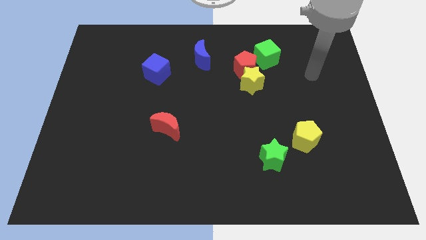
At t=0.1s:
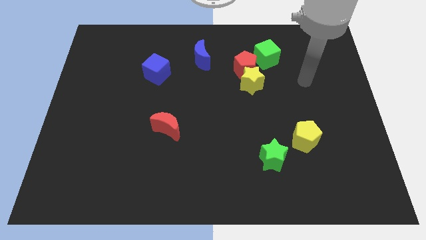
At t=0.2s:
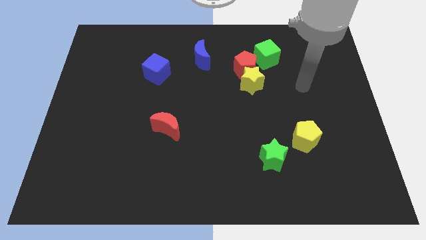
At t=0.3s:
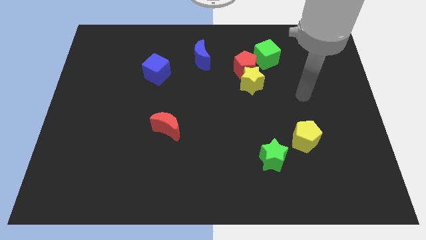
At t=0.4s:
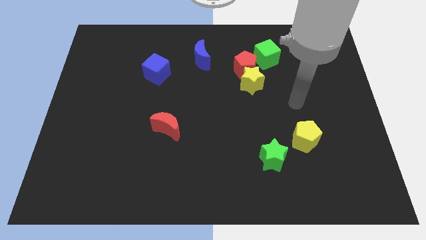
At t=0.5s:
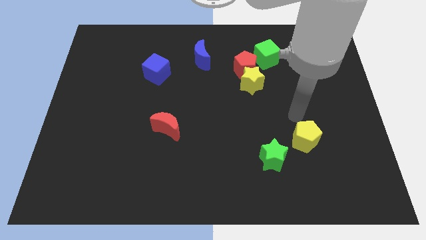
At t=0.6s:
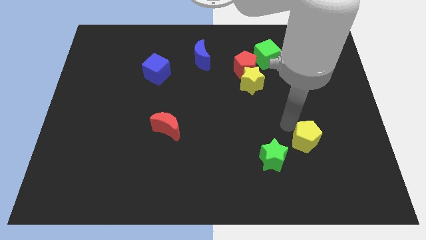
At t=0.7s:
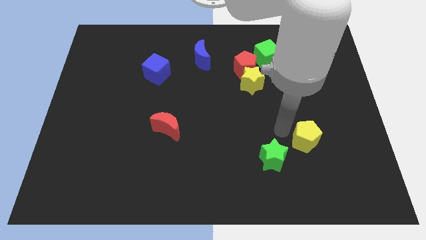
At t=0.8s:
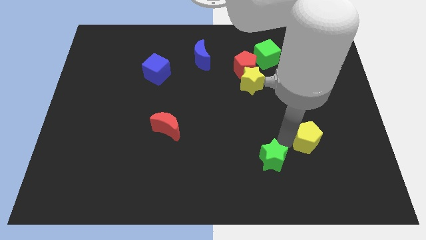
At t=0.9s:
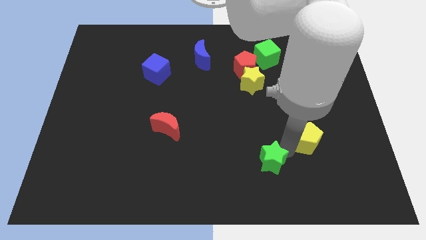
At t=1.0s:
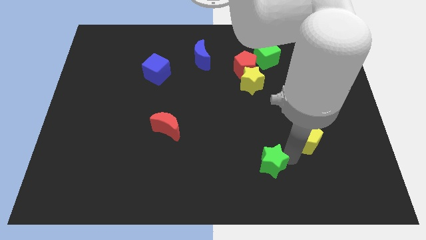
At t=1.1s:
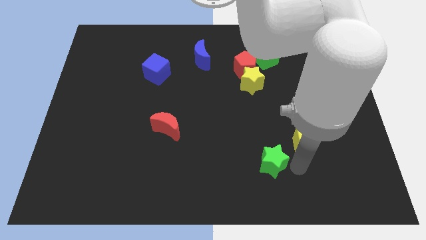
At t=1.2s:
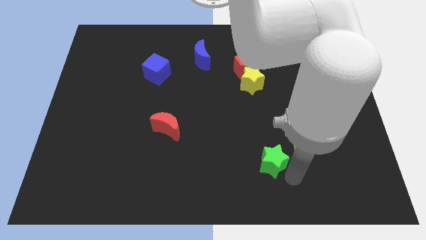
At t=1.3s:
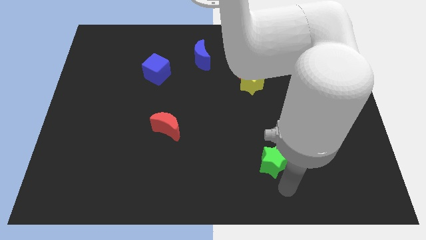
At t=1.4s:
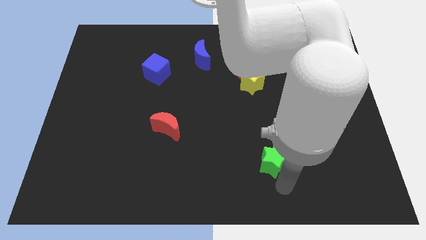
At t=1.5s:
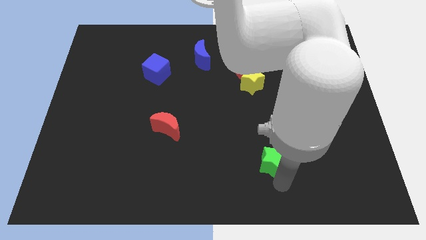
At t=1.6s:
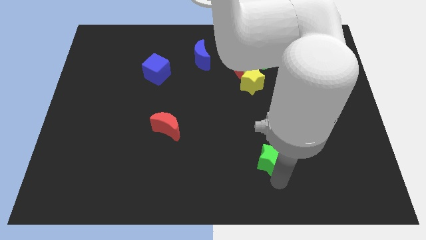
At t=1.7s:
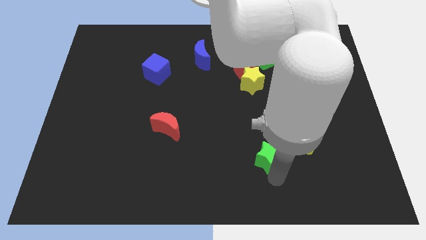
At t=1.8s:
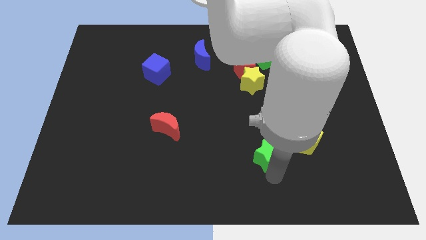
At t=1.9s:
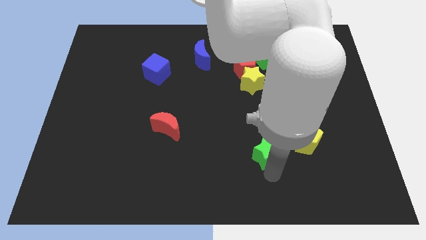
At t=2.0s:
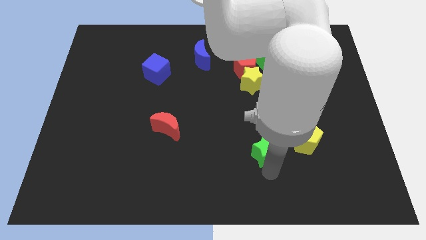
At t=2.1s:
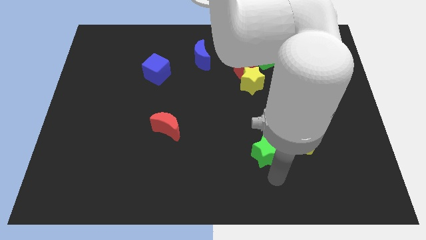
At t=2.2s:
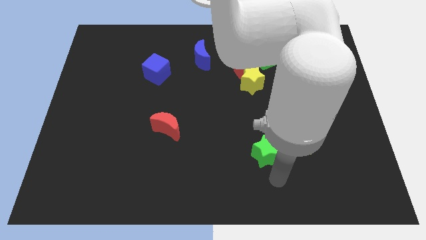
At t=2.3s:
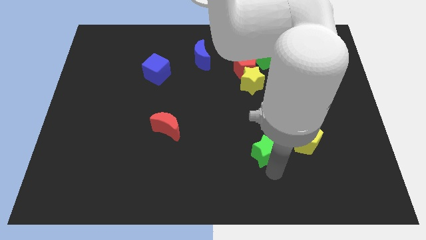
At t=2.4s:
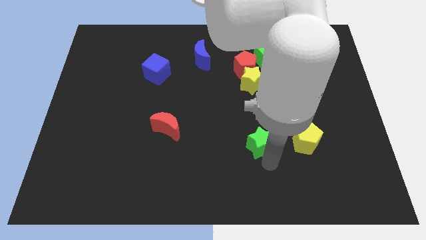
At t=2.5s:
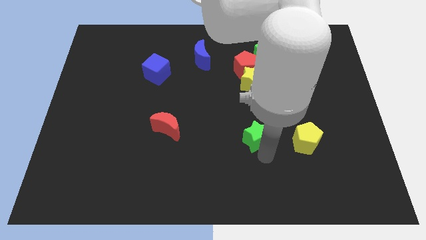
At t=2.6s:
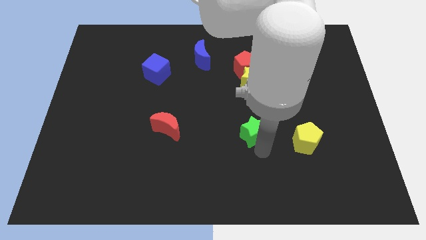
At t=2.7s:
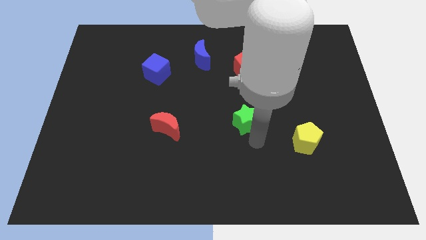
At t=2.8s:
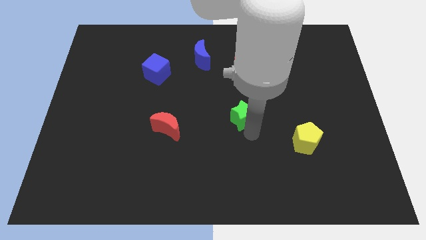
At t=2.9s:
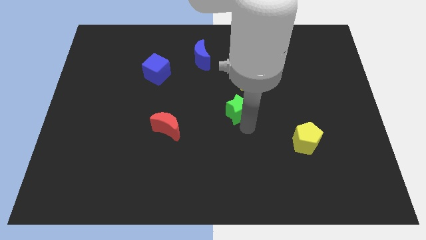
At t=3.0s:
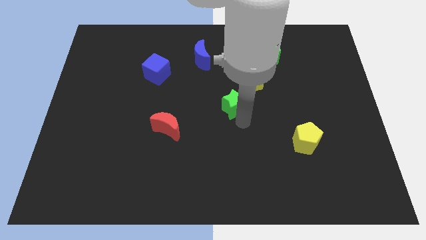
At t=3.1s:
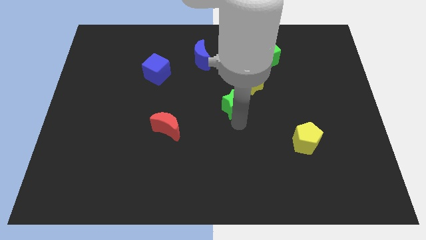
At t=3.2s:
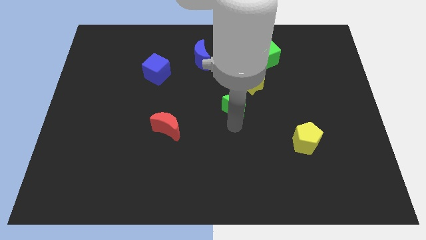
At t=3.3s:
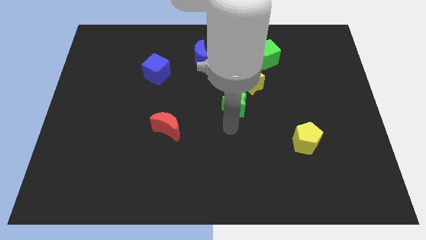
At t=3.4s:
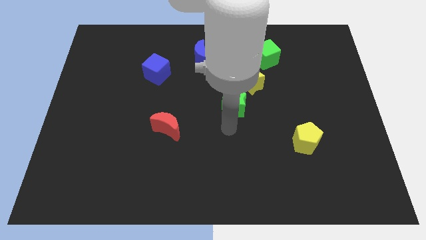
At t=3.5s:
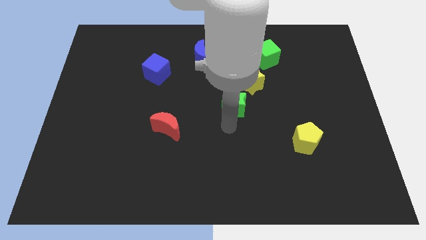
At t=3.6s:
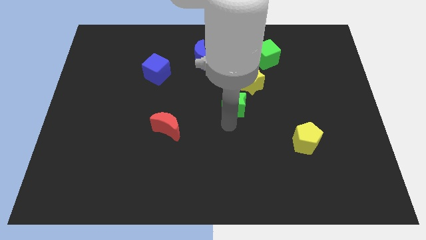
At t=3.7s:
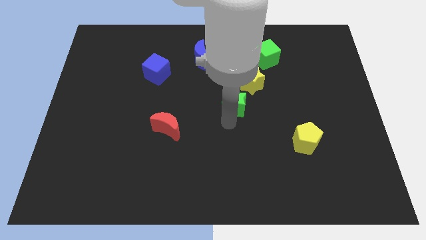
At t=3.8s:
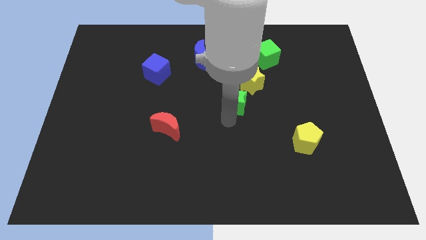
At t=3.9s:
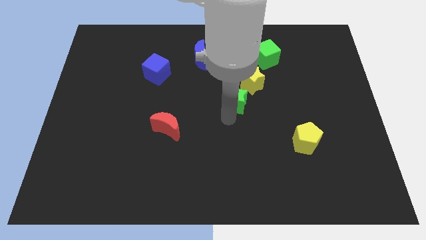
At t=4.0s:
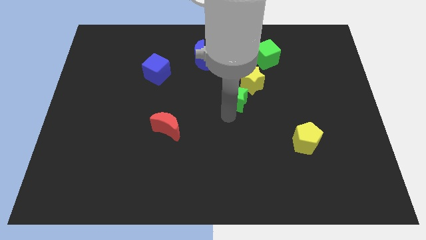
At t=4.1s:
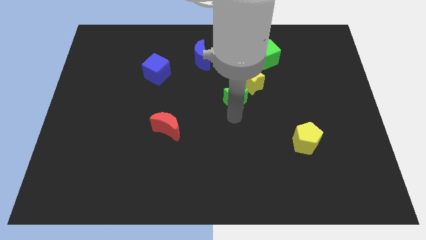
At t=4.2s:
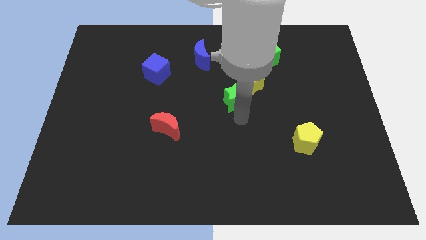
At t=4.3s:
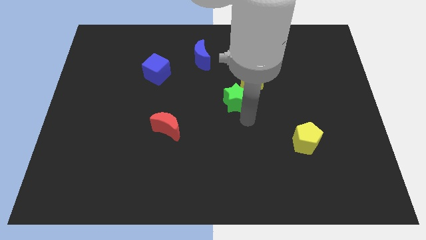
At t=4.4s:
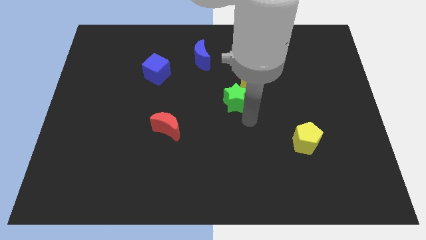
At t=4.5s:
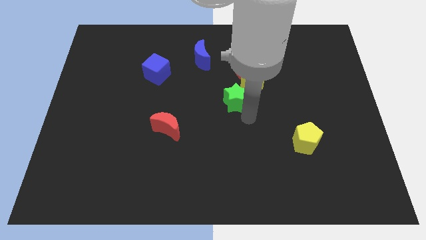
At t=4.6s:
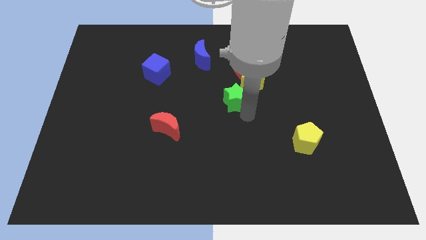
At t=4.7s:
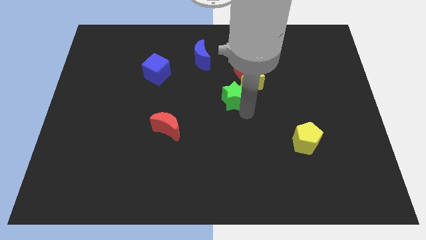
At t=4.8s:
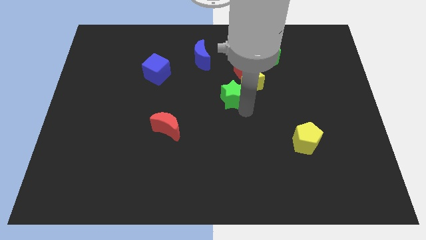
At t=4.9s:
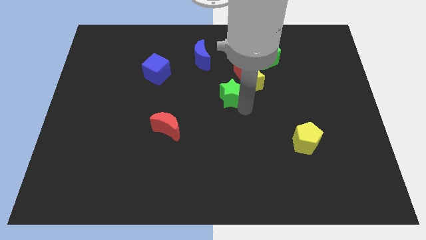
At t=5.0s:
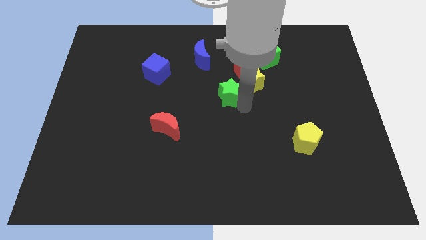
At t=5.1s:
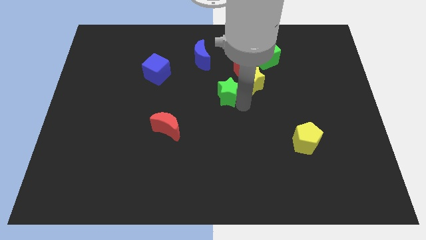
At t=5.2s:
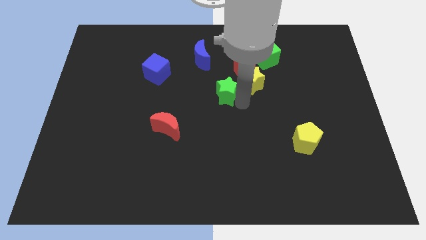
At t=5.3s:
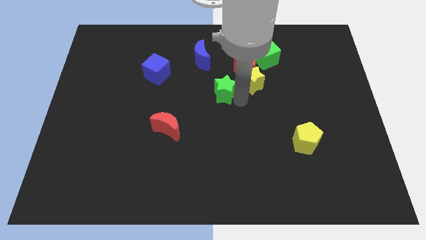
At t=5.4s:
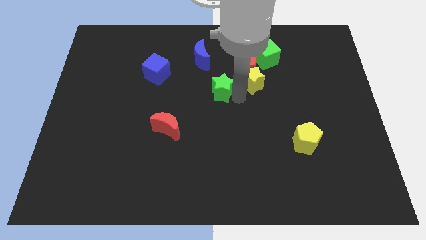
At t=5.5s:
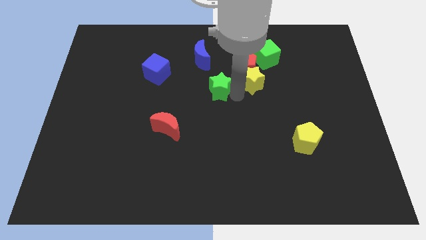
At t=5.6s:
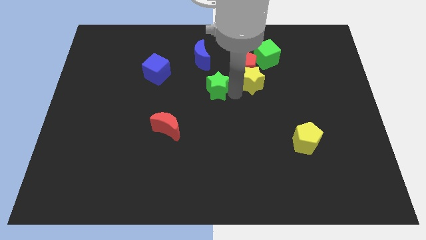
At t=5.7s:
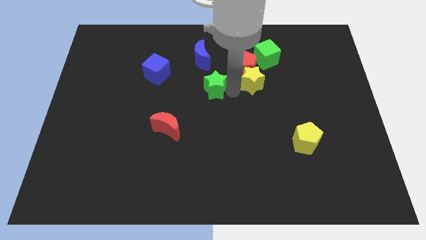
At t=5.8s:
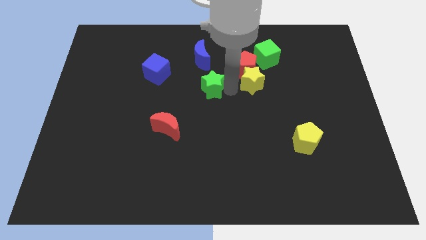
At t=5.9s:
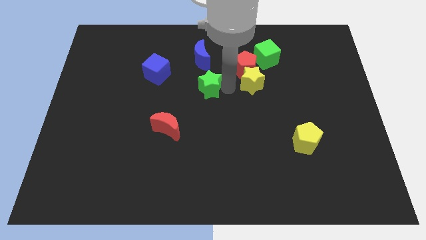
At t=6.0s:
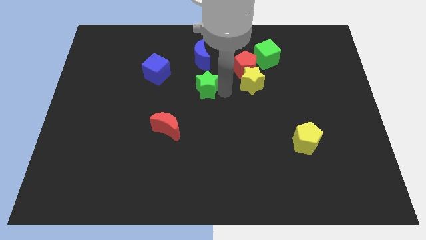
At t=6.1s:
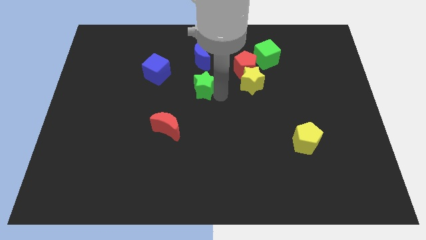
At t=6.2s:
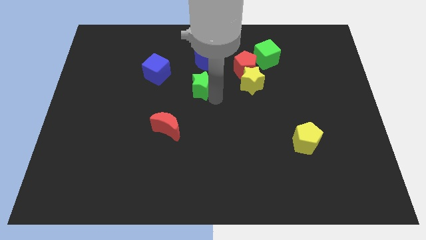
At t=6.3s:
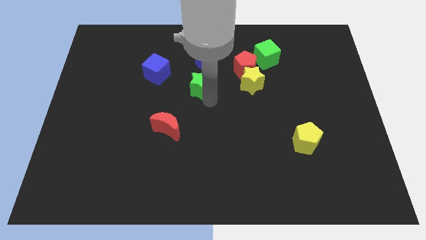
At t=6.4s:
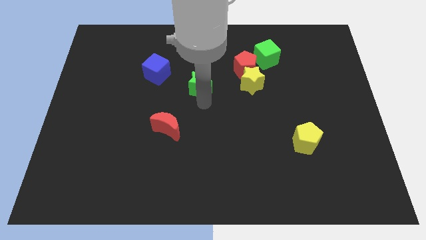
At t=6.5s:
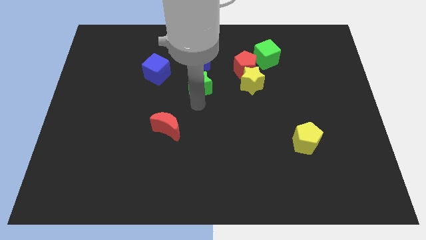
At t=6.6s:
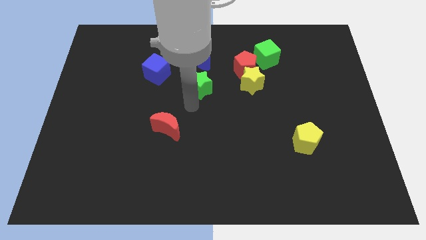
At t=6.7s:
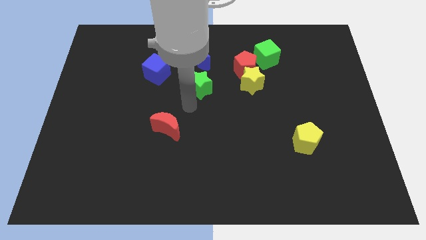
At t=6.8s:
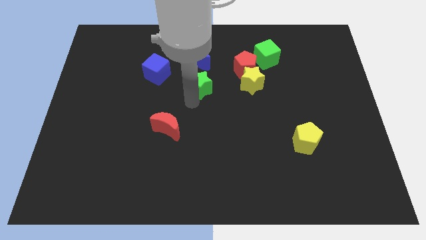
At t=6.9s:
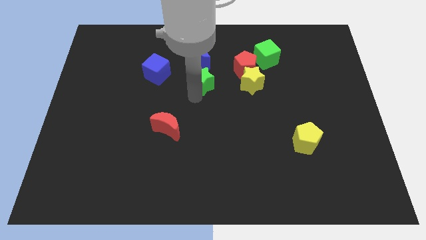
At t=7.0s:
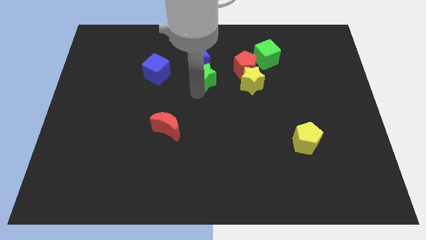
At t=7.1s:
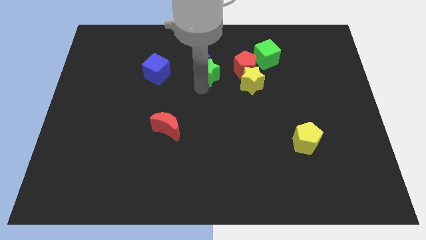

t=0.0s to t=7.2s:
slide the green star close to the blue moon

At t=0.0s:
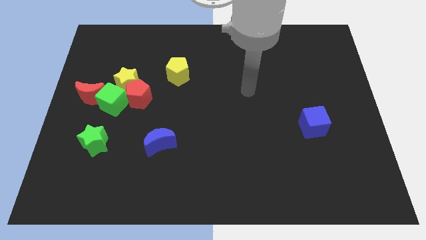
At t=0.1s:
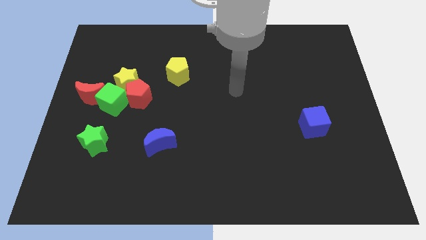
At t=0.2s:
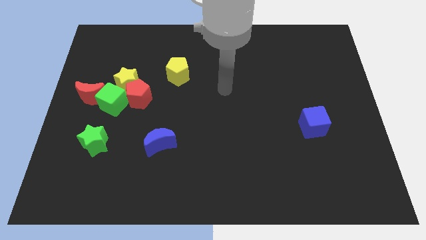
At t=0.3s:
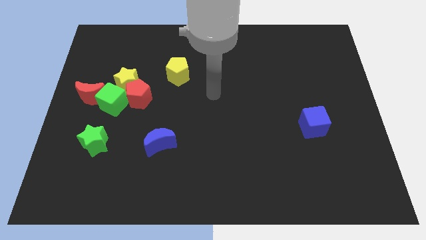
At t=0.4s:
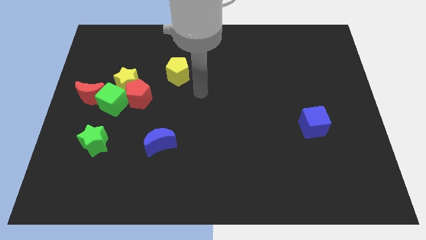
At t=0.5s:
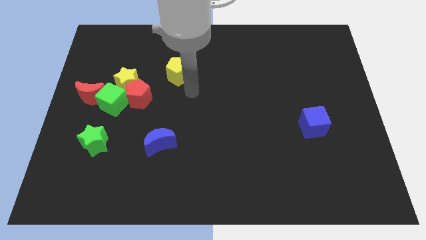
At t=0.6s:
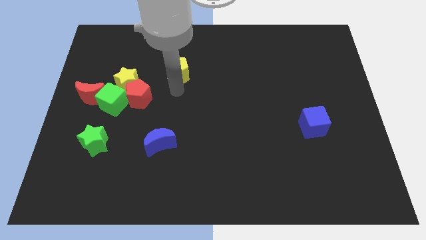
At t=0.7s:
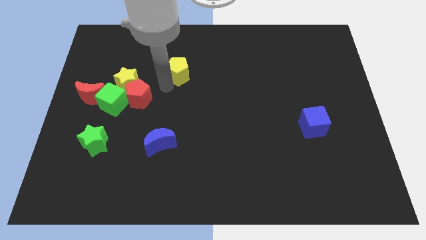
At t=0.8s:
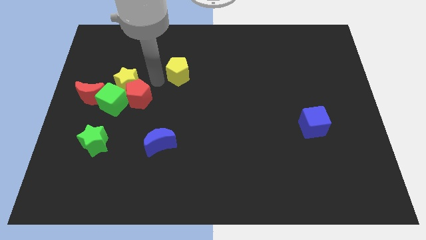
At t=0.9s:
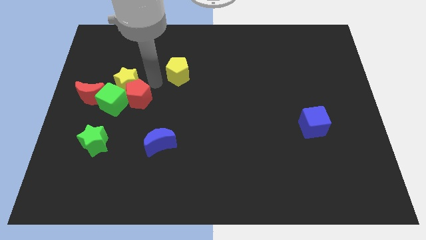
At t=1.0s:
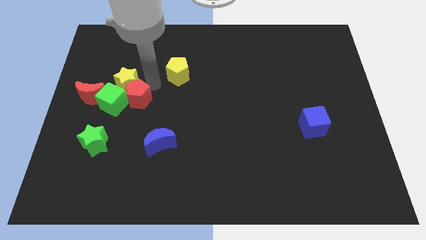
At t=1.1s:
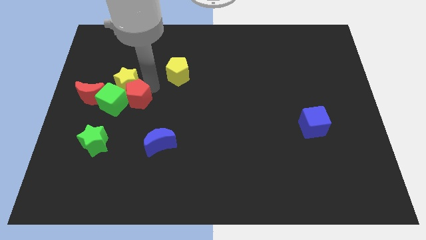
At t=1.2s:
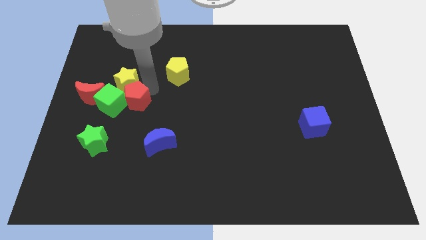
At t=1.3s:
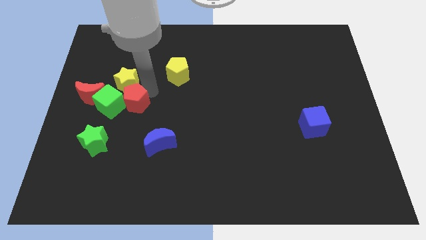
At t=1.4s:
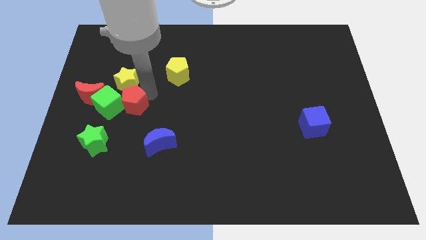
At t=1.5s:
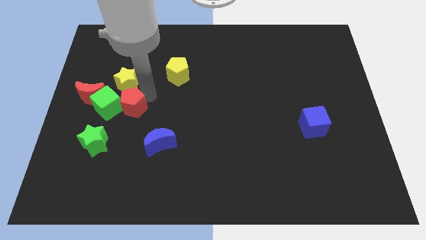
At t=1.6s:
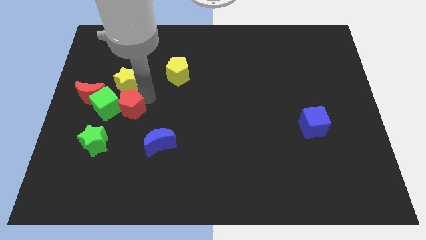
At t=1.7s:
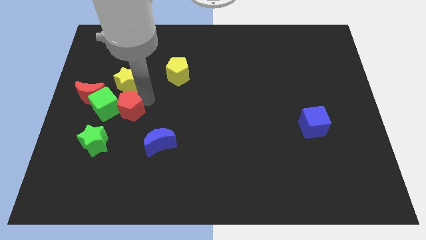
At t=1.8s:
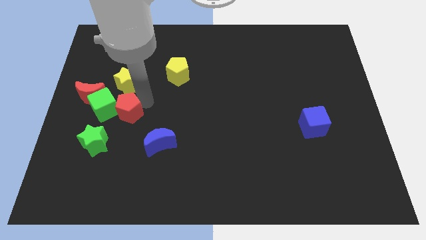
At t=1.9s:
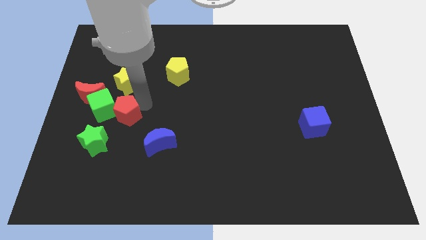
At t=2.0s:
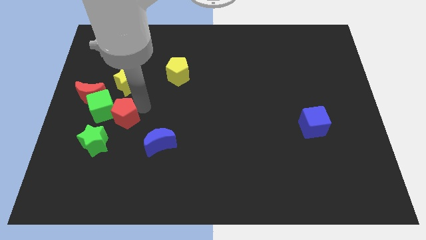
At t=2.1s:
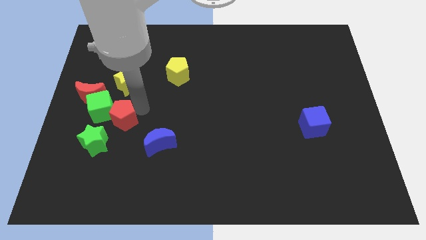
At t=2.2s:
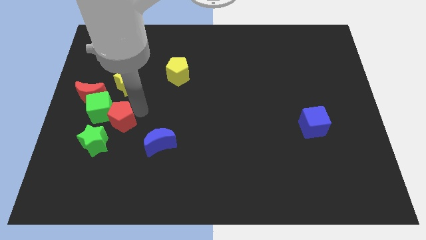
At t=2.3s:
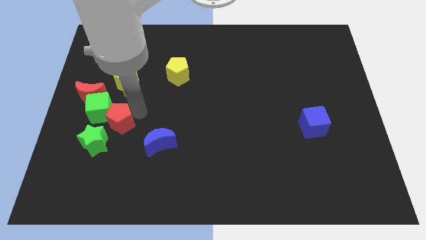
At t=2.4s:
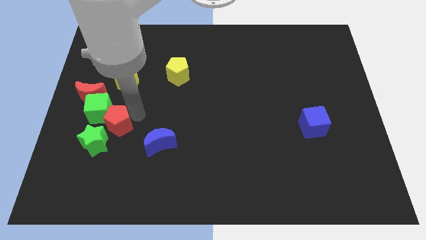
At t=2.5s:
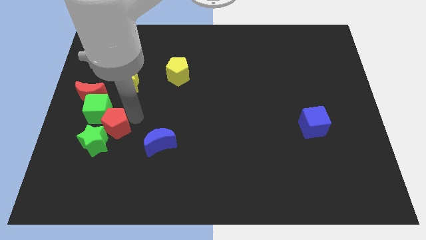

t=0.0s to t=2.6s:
move the red pentagon close to the green star
